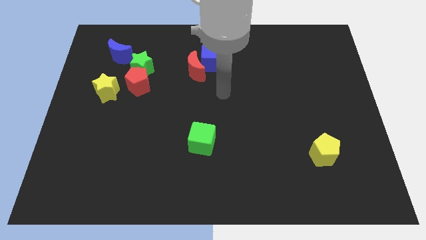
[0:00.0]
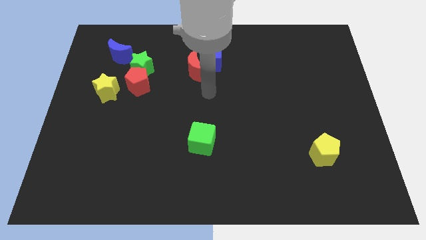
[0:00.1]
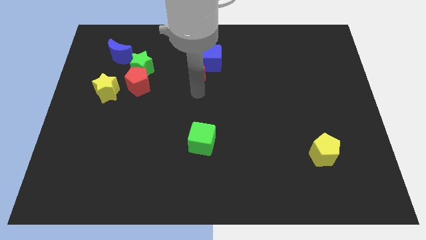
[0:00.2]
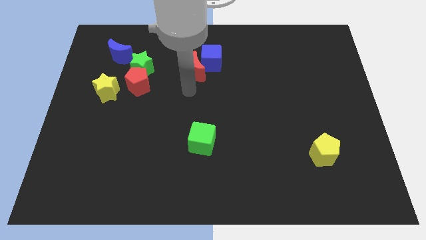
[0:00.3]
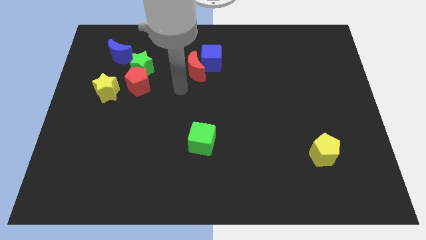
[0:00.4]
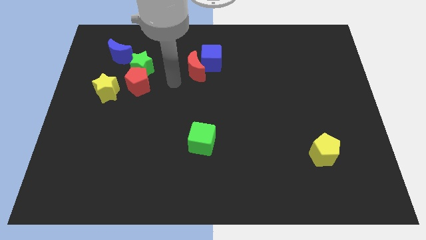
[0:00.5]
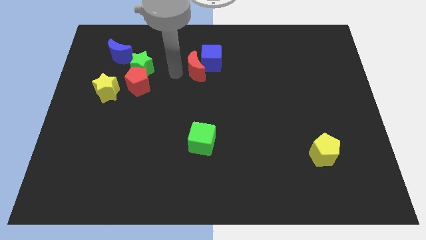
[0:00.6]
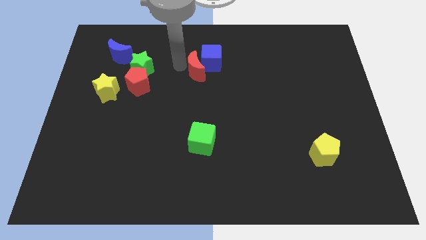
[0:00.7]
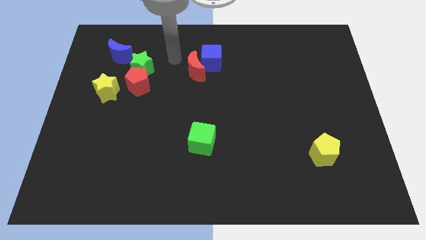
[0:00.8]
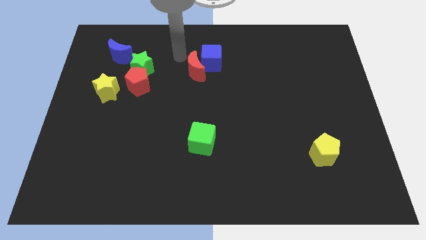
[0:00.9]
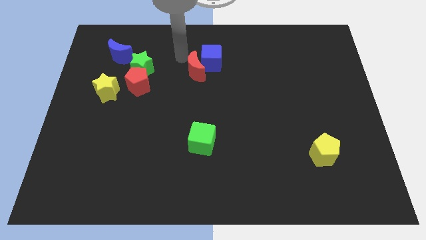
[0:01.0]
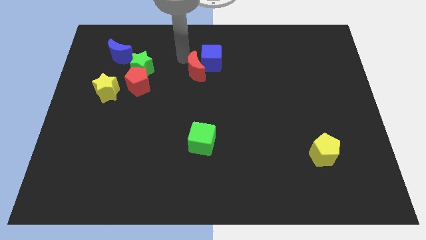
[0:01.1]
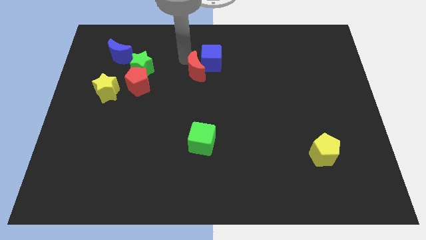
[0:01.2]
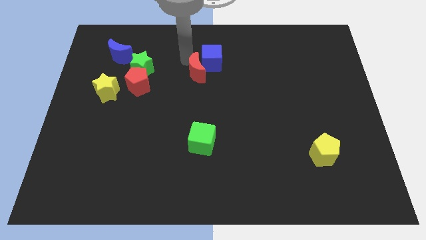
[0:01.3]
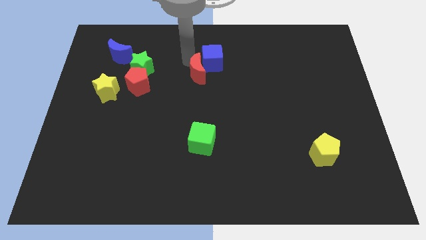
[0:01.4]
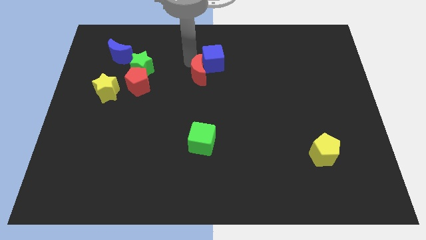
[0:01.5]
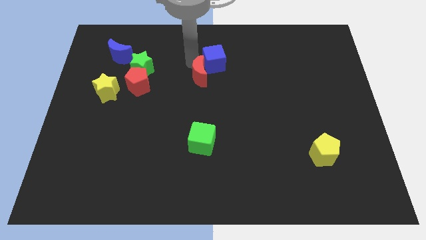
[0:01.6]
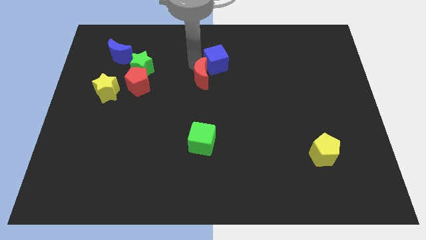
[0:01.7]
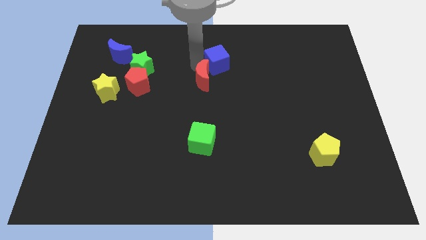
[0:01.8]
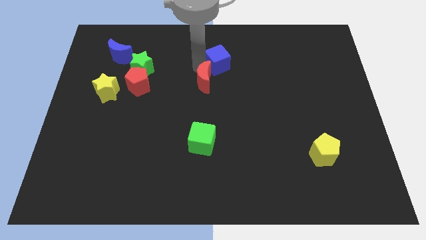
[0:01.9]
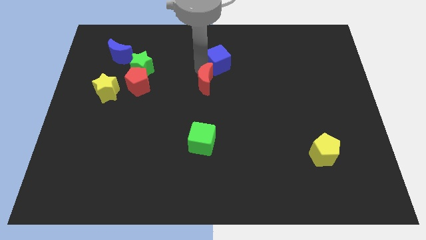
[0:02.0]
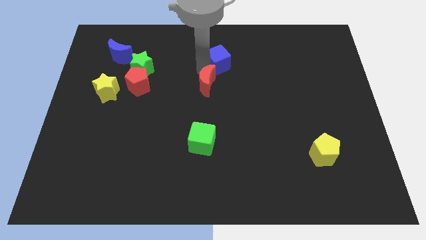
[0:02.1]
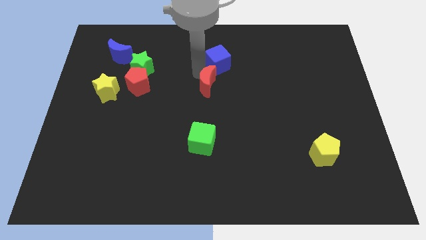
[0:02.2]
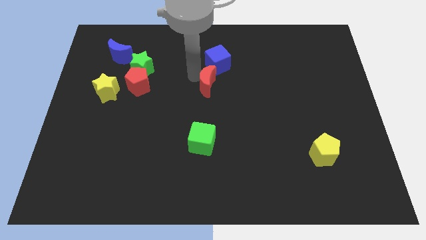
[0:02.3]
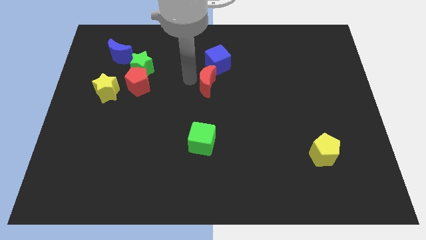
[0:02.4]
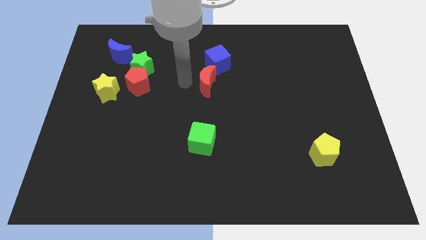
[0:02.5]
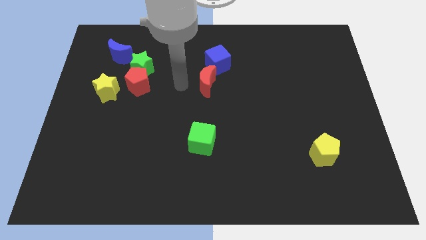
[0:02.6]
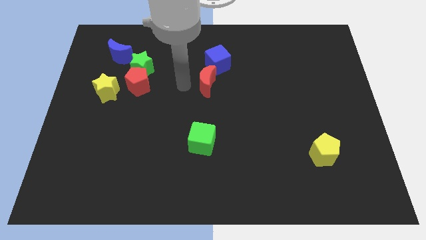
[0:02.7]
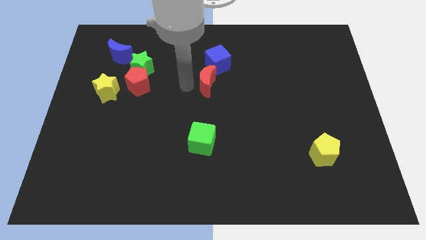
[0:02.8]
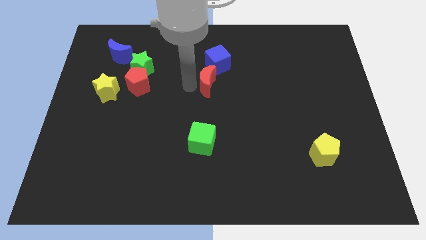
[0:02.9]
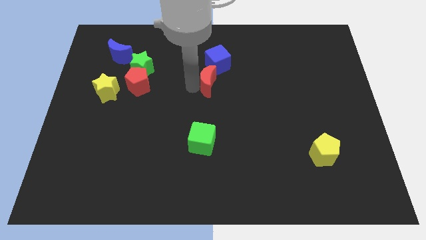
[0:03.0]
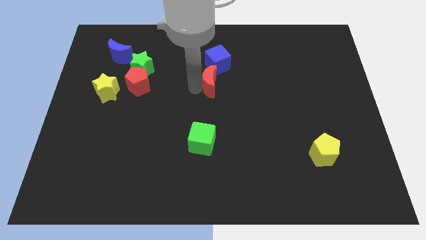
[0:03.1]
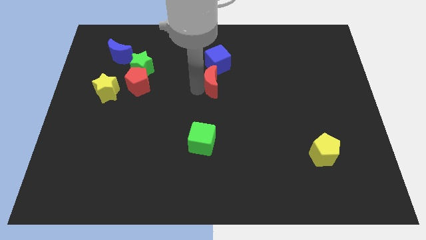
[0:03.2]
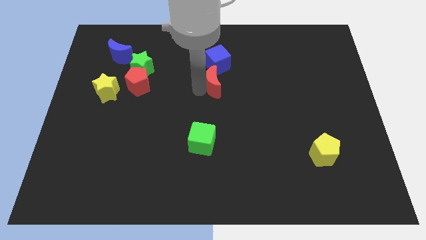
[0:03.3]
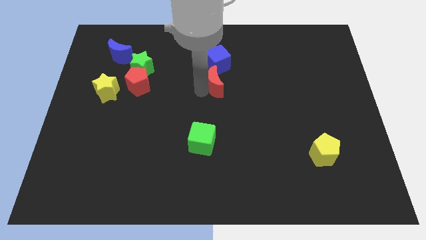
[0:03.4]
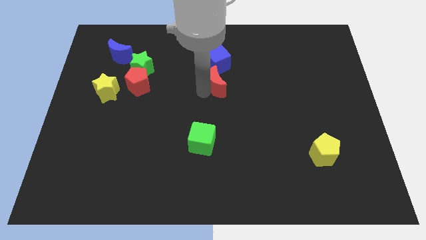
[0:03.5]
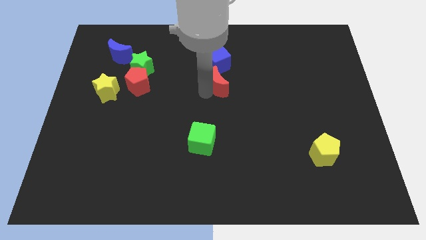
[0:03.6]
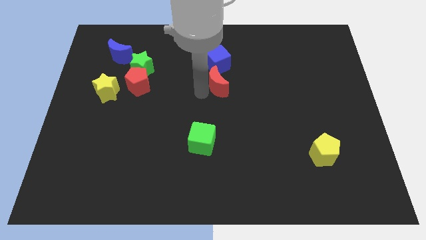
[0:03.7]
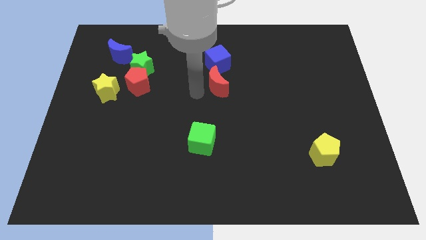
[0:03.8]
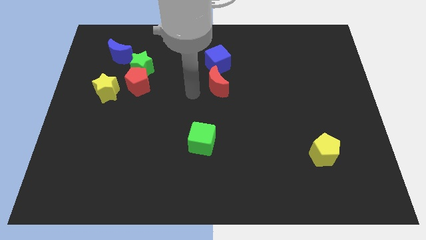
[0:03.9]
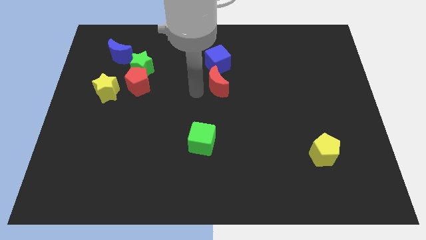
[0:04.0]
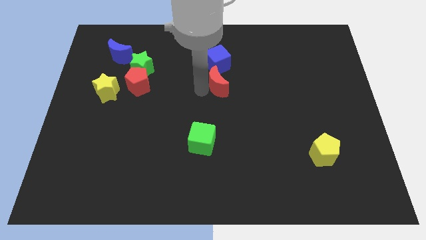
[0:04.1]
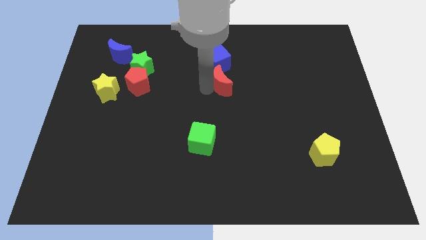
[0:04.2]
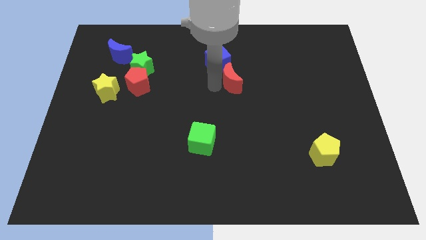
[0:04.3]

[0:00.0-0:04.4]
slightly slide the red moon right

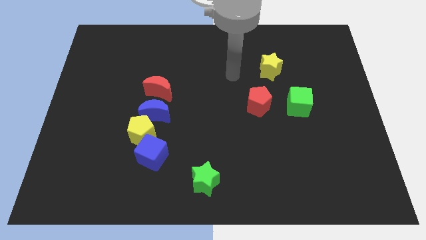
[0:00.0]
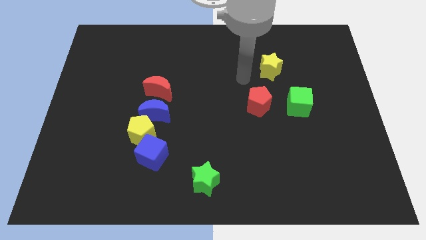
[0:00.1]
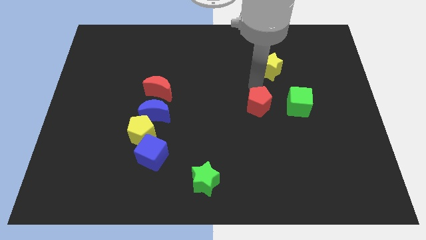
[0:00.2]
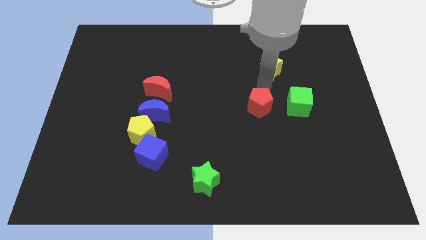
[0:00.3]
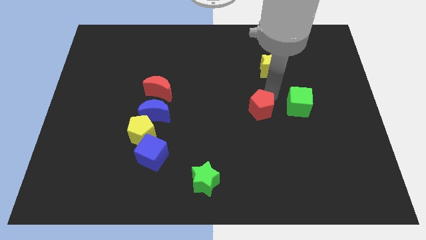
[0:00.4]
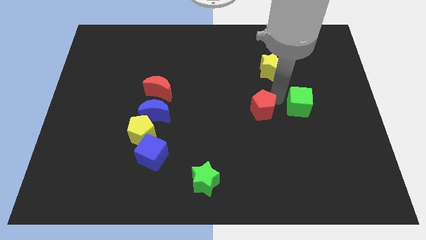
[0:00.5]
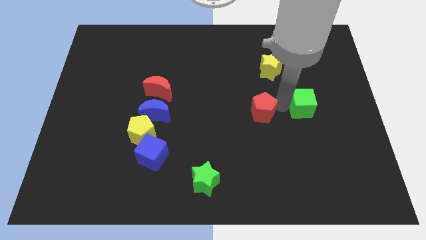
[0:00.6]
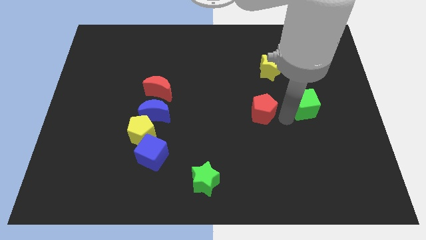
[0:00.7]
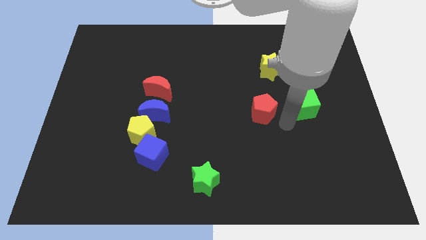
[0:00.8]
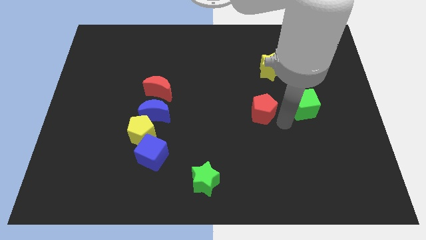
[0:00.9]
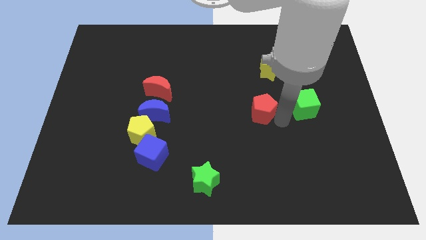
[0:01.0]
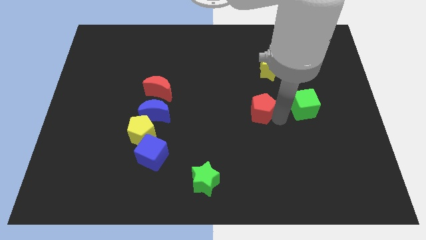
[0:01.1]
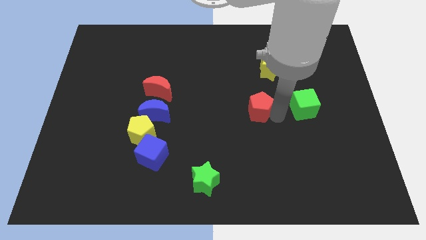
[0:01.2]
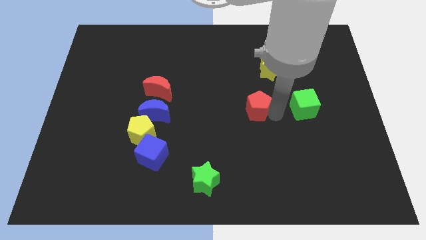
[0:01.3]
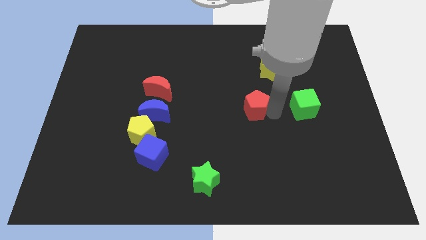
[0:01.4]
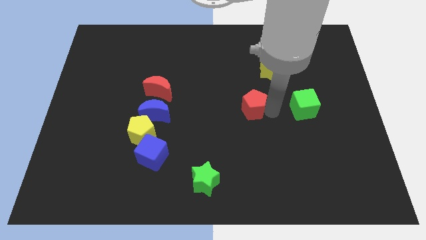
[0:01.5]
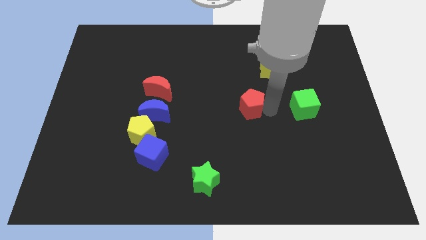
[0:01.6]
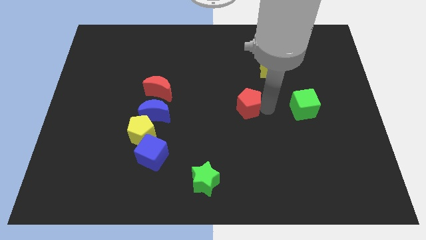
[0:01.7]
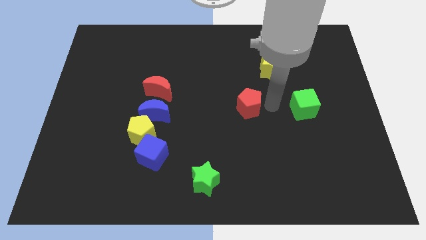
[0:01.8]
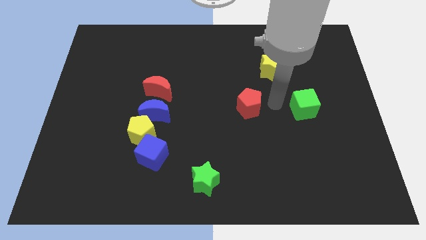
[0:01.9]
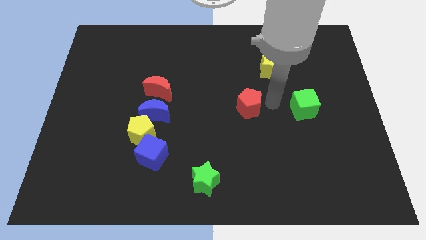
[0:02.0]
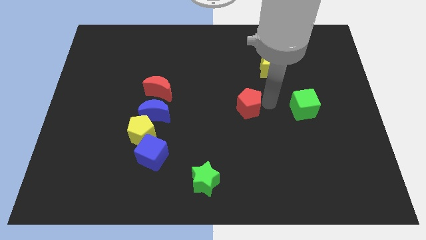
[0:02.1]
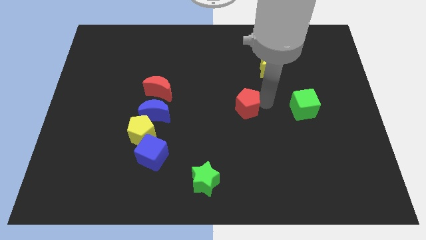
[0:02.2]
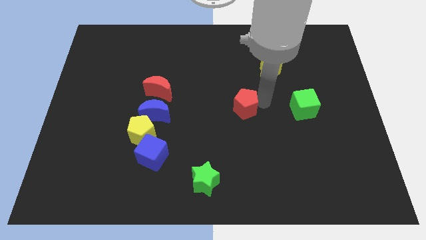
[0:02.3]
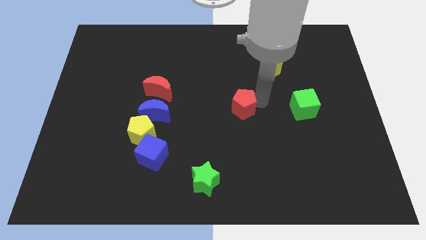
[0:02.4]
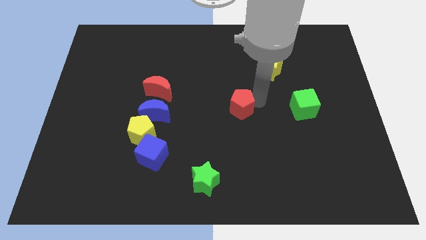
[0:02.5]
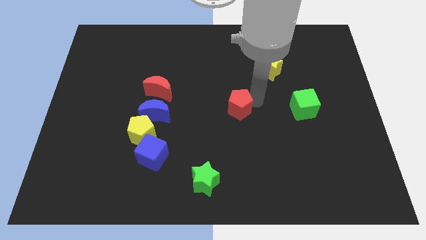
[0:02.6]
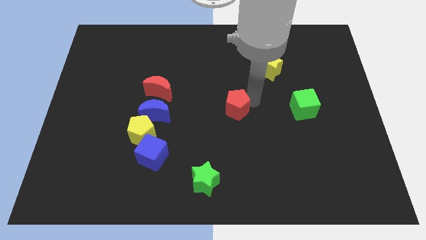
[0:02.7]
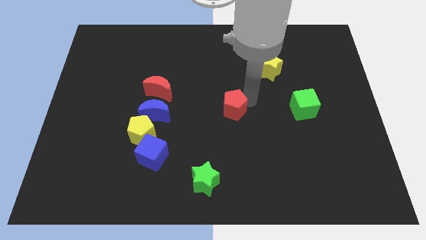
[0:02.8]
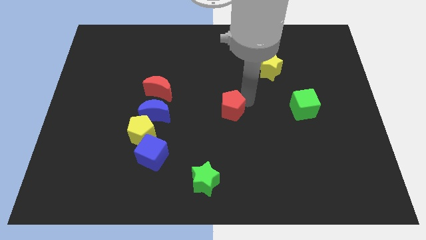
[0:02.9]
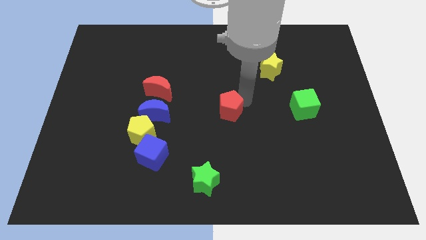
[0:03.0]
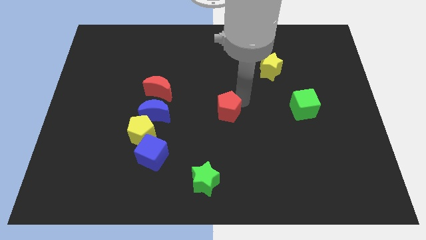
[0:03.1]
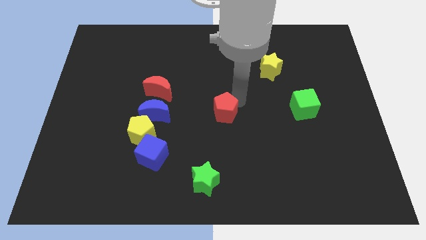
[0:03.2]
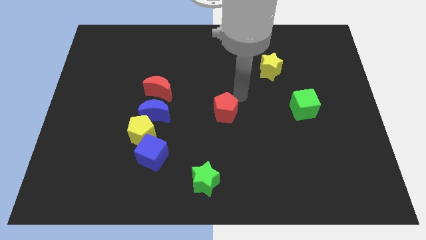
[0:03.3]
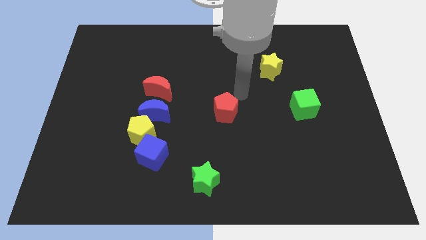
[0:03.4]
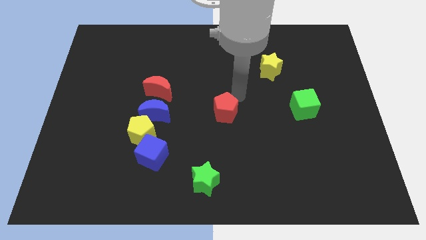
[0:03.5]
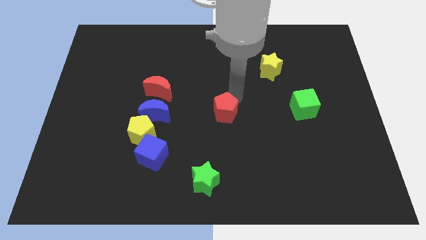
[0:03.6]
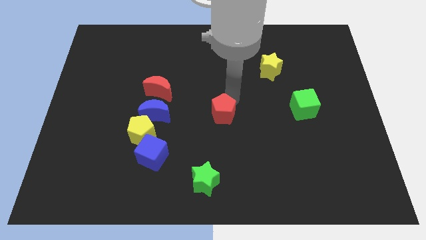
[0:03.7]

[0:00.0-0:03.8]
slide the red pentagon downwards and left diagonally a bit

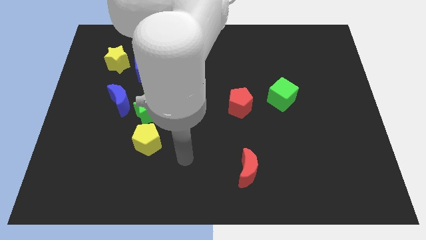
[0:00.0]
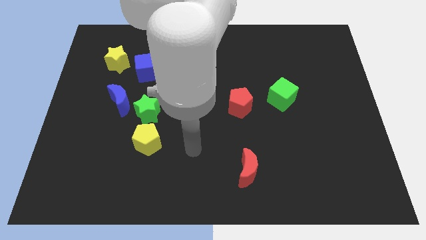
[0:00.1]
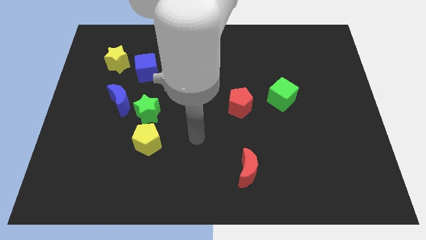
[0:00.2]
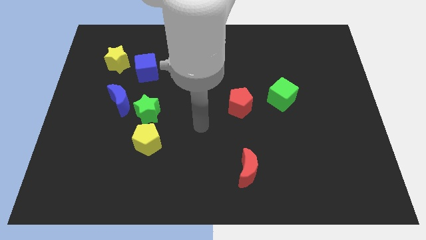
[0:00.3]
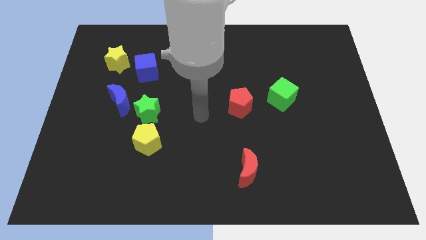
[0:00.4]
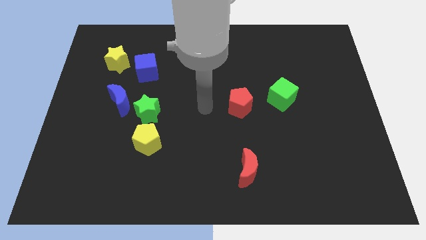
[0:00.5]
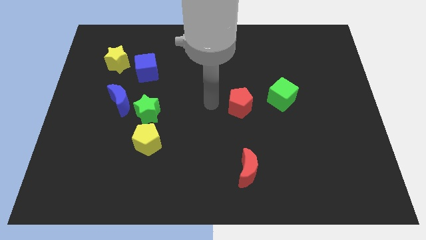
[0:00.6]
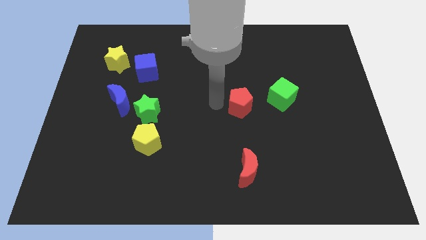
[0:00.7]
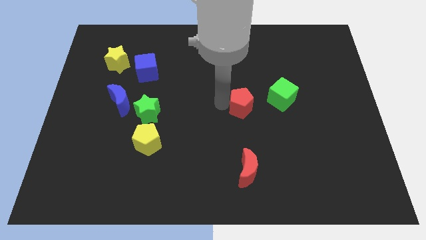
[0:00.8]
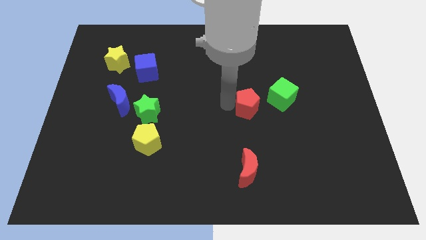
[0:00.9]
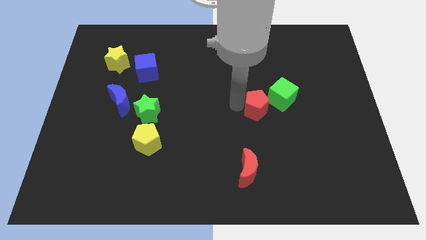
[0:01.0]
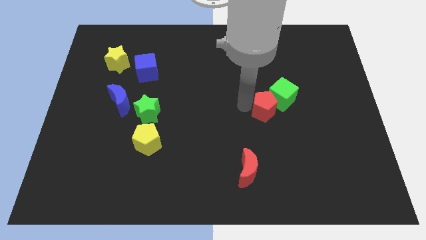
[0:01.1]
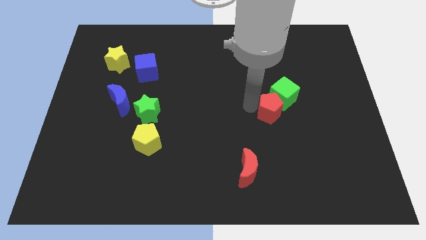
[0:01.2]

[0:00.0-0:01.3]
slightly slide the red pentagon right
